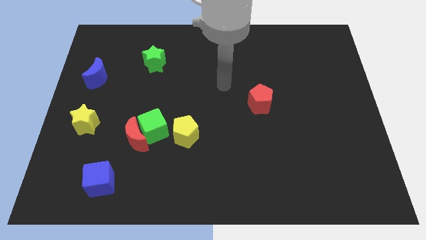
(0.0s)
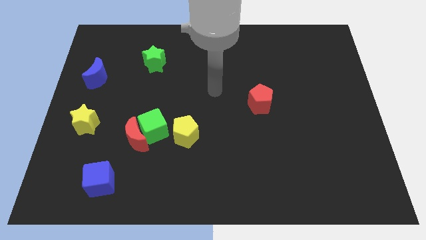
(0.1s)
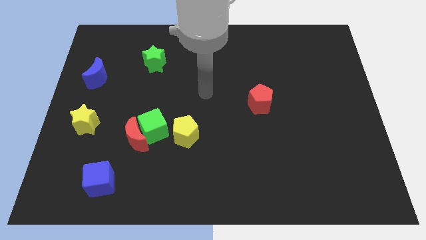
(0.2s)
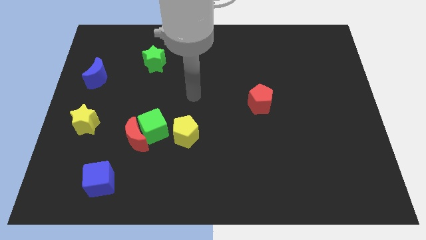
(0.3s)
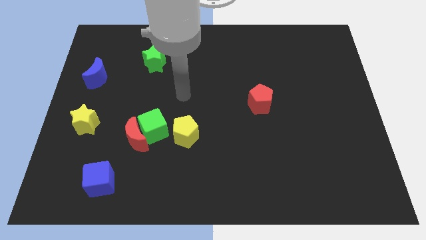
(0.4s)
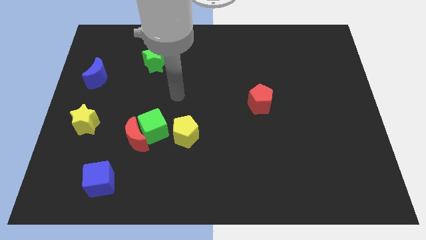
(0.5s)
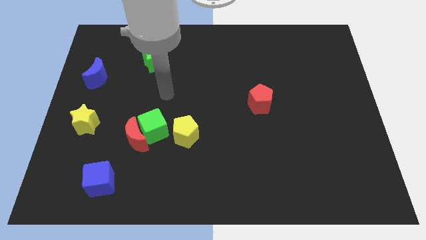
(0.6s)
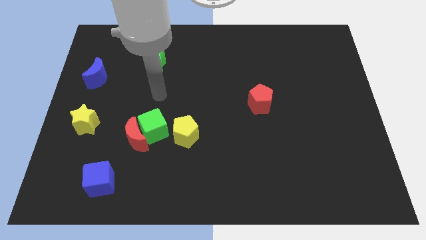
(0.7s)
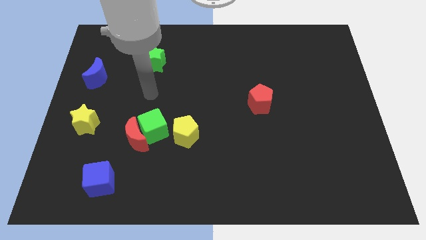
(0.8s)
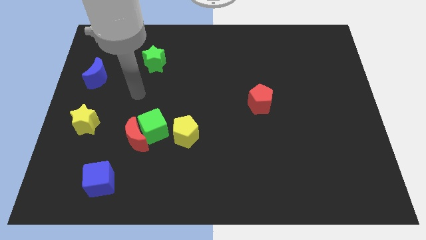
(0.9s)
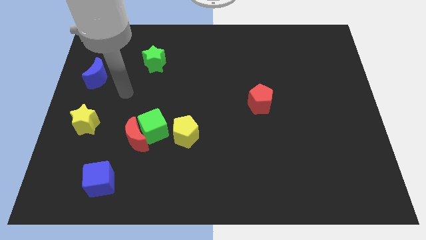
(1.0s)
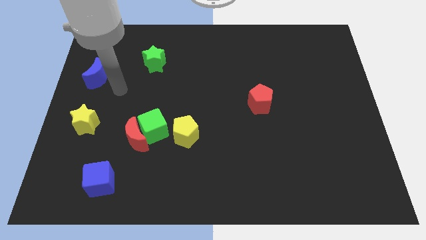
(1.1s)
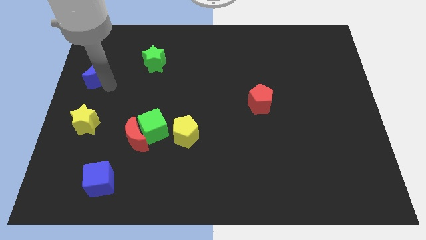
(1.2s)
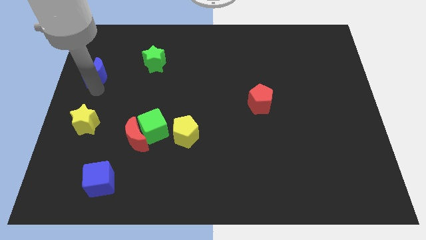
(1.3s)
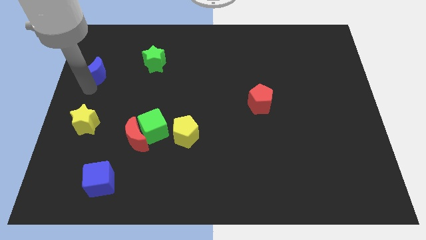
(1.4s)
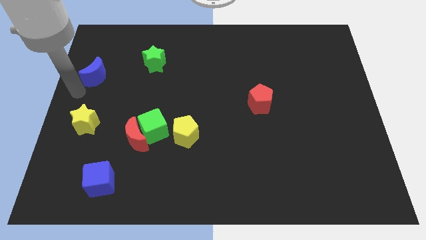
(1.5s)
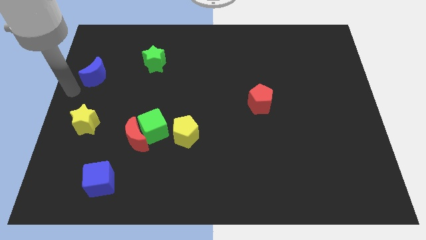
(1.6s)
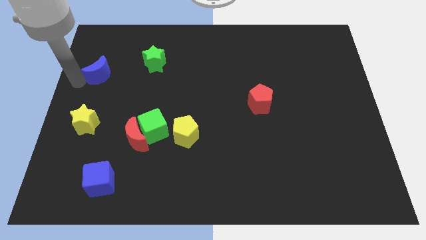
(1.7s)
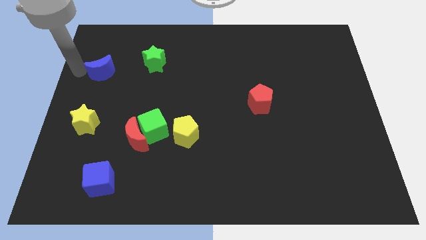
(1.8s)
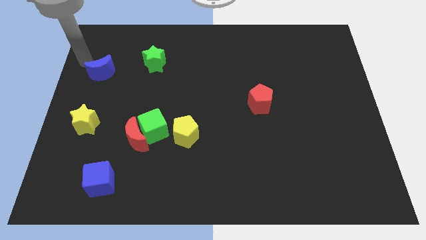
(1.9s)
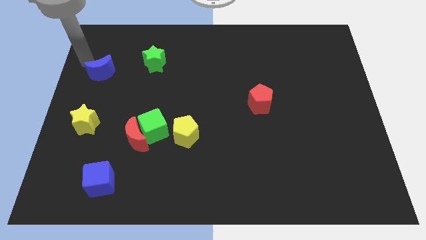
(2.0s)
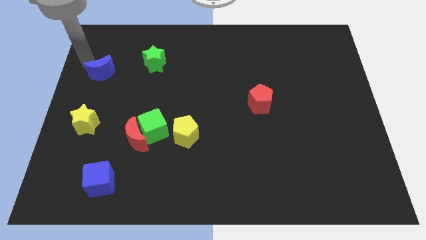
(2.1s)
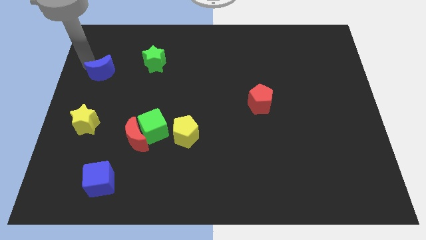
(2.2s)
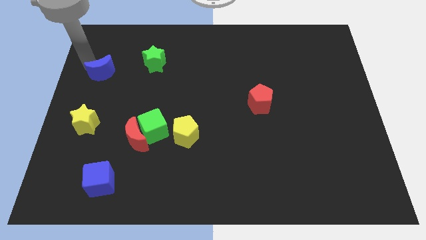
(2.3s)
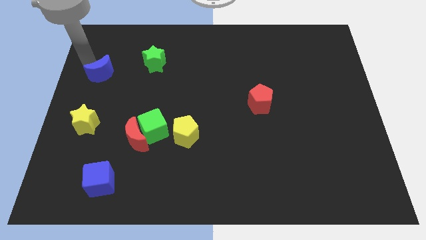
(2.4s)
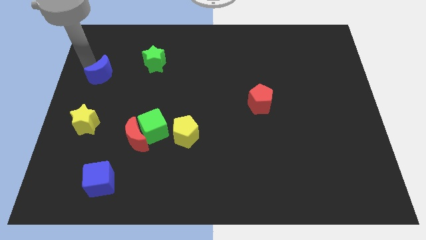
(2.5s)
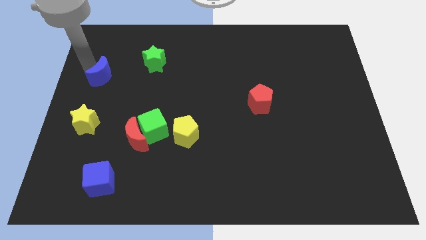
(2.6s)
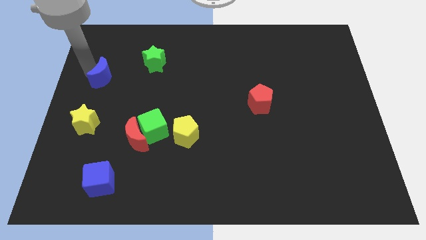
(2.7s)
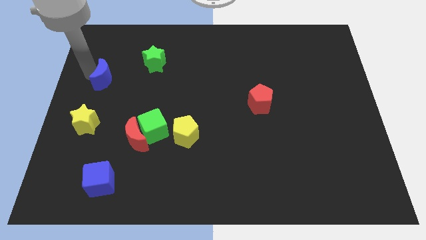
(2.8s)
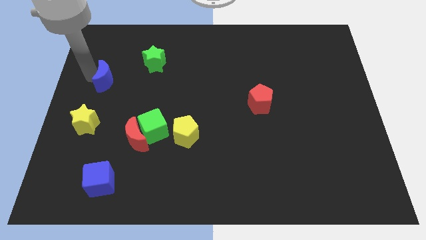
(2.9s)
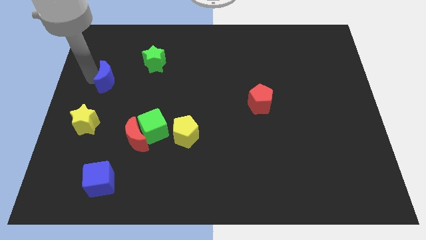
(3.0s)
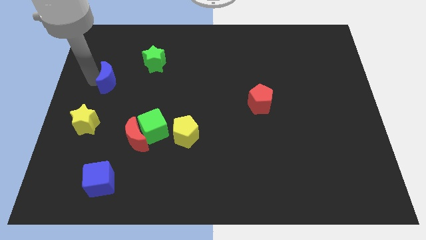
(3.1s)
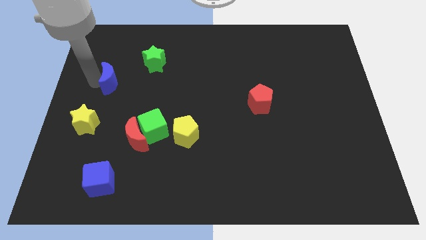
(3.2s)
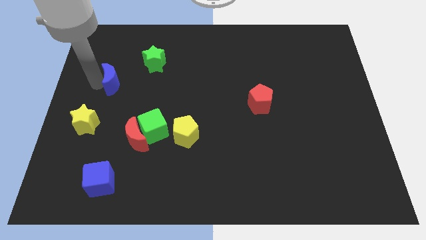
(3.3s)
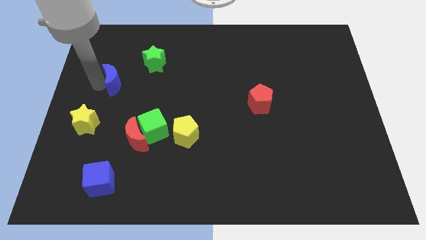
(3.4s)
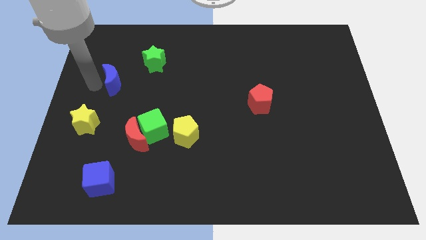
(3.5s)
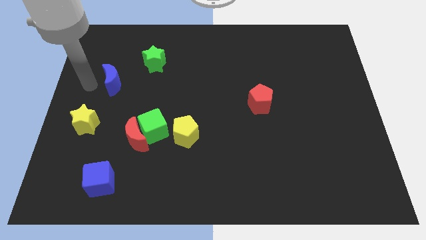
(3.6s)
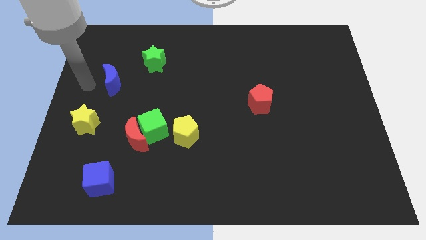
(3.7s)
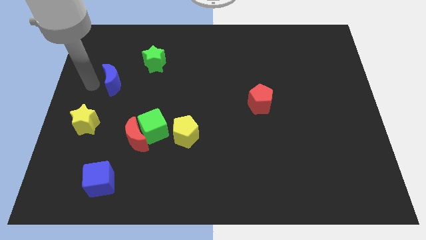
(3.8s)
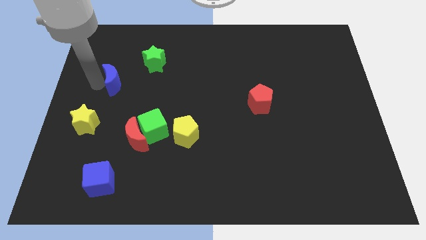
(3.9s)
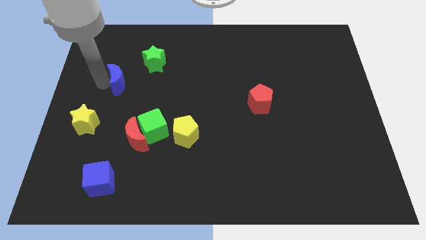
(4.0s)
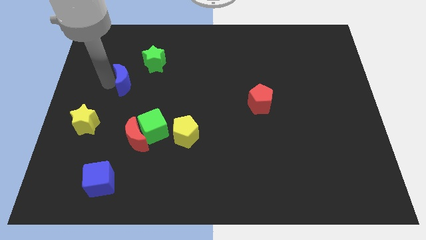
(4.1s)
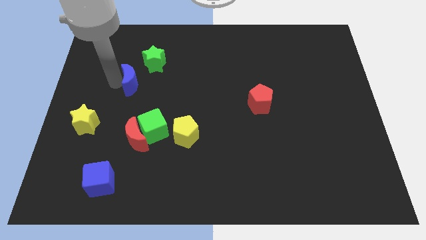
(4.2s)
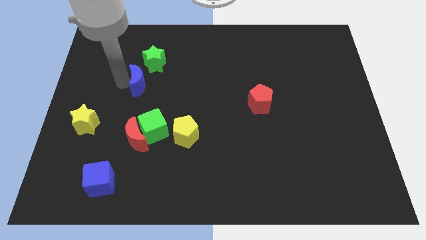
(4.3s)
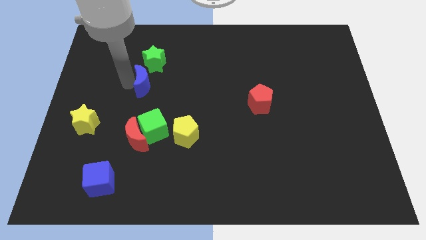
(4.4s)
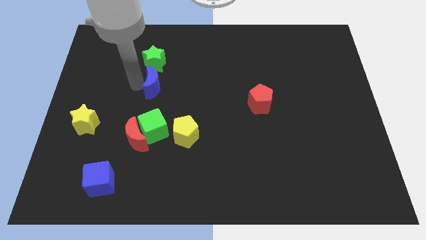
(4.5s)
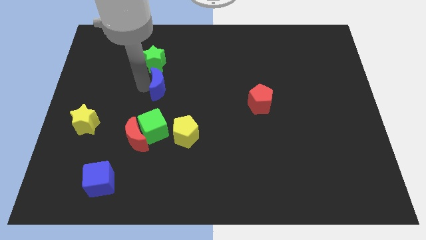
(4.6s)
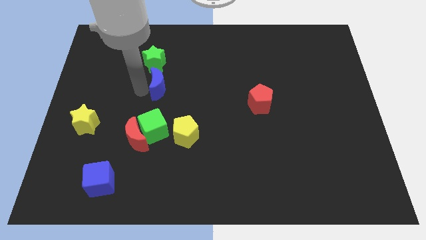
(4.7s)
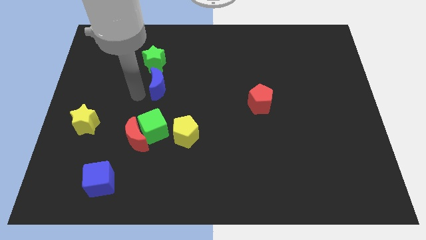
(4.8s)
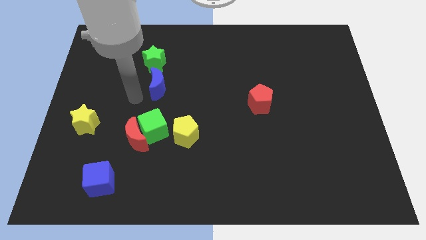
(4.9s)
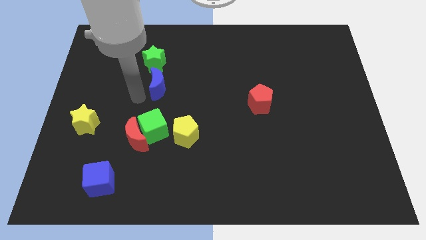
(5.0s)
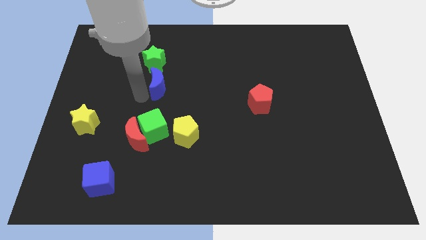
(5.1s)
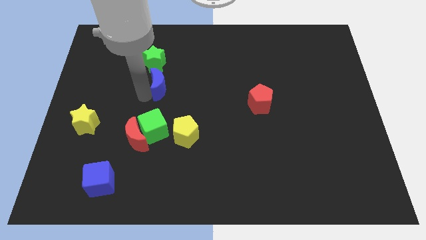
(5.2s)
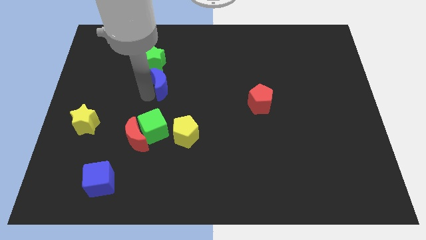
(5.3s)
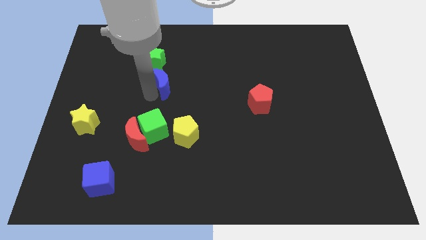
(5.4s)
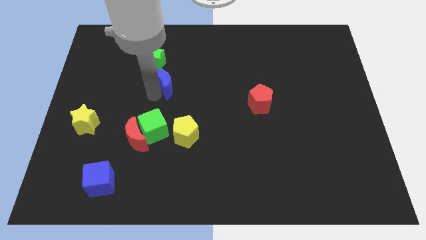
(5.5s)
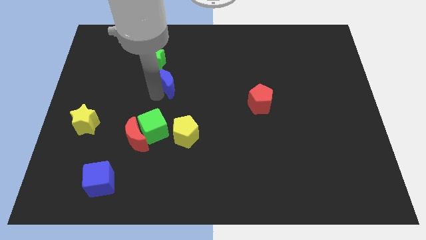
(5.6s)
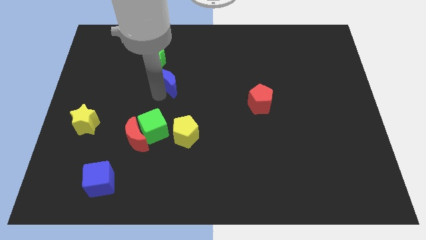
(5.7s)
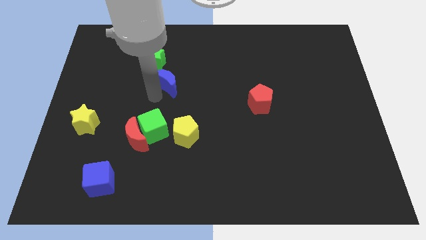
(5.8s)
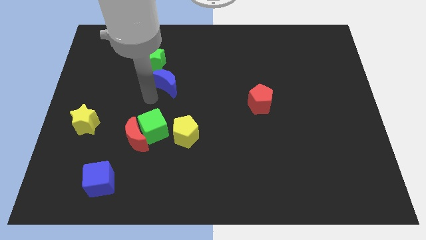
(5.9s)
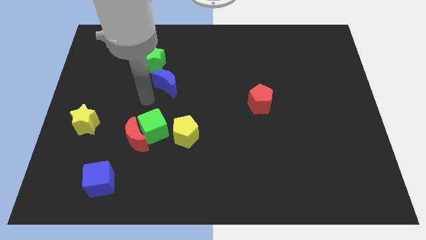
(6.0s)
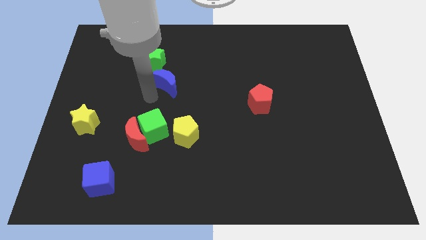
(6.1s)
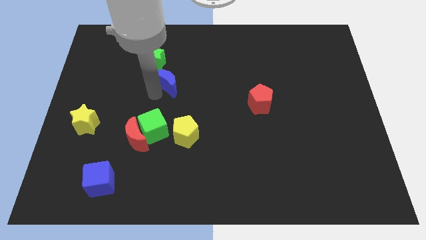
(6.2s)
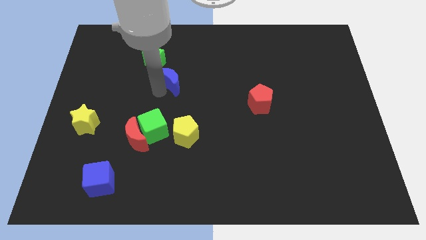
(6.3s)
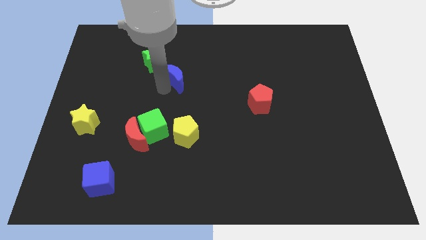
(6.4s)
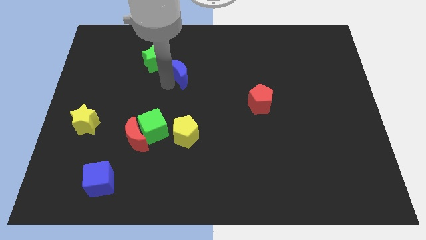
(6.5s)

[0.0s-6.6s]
push the blue moon to the right

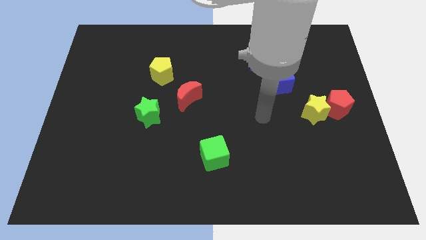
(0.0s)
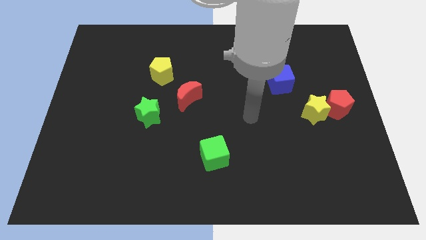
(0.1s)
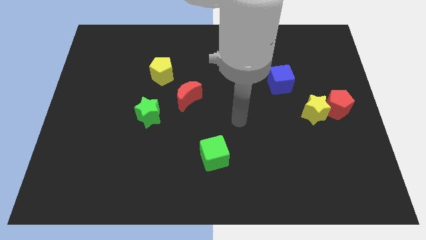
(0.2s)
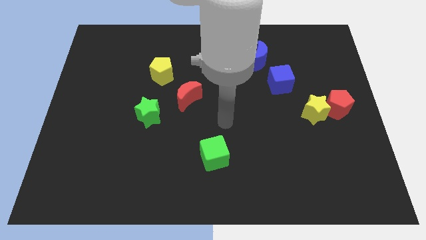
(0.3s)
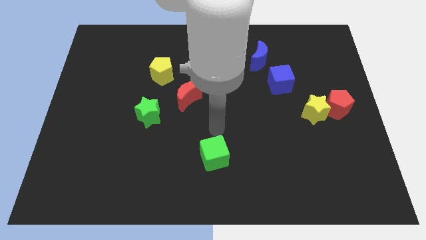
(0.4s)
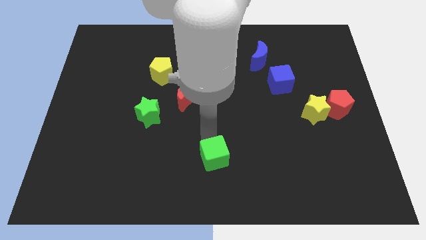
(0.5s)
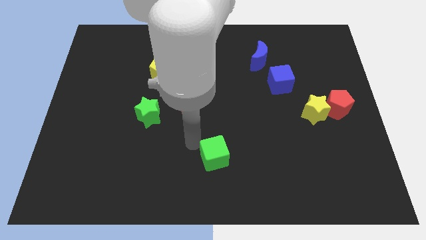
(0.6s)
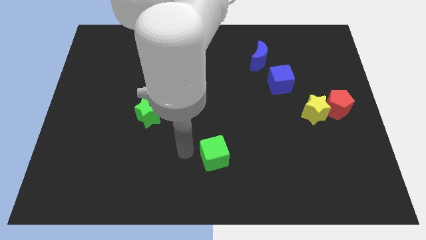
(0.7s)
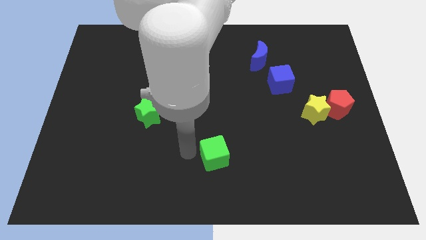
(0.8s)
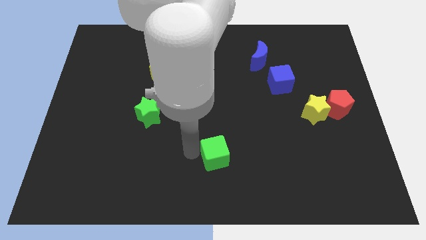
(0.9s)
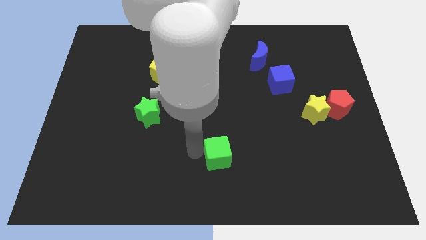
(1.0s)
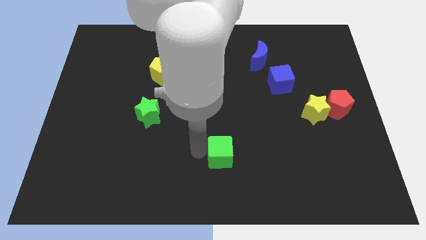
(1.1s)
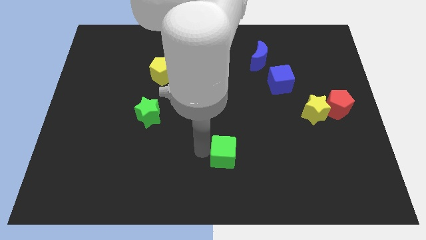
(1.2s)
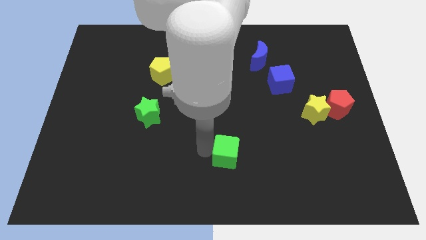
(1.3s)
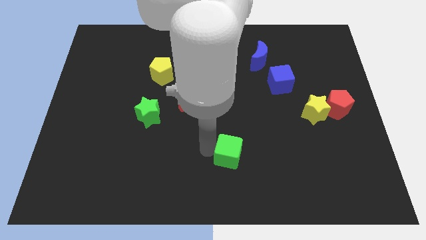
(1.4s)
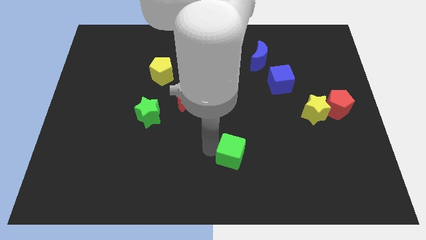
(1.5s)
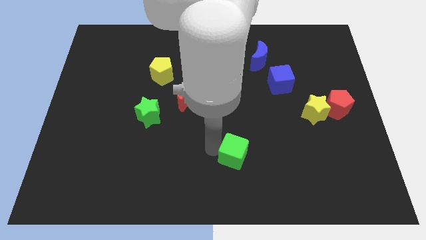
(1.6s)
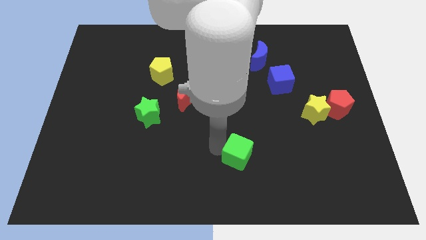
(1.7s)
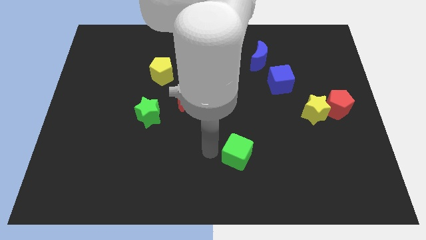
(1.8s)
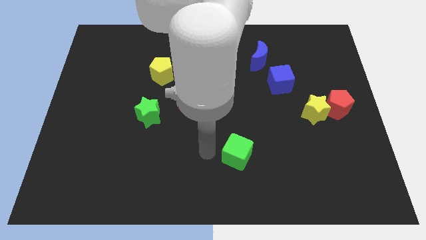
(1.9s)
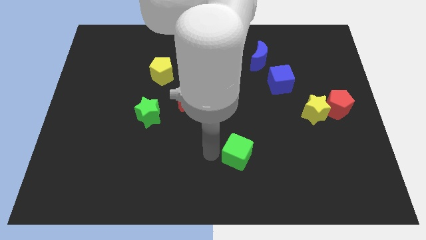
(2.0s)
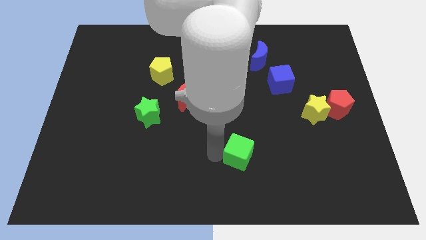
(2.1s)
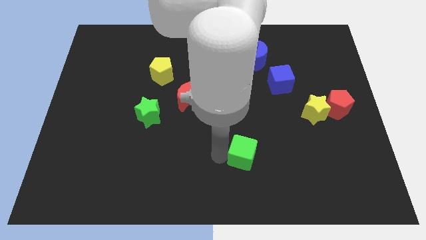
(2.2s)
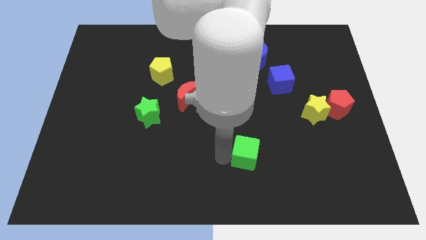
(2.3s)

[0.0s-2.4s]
slightly slide the green cube to the right
